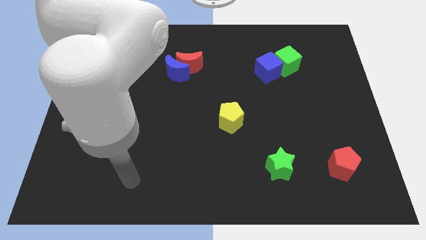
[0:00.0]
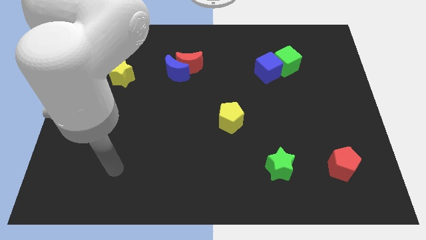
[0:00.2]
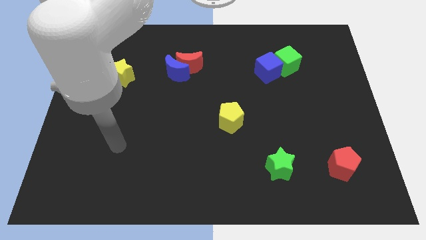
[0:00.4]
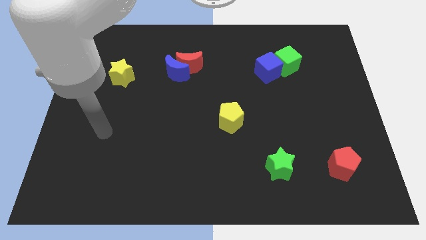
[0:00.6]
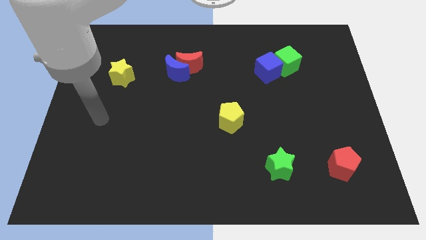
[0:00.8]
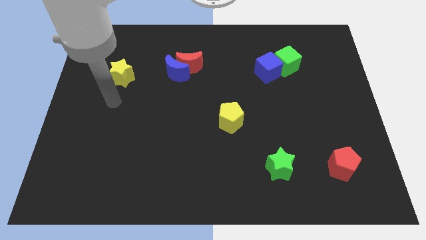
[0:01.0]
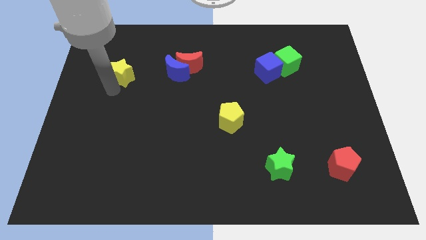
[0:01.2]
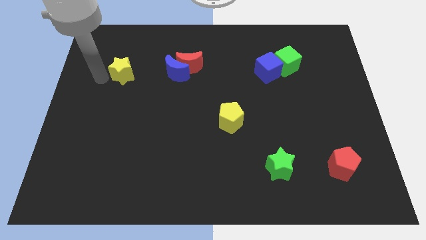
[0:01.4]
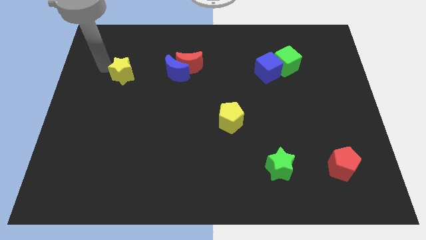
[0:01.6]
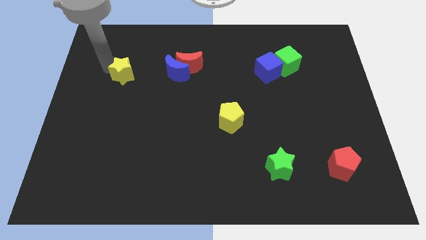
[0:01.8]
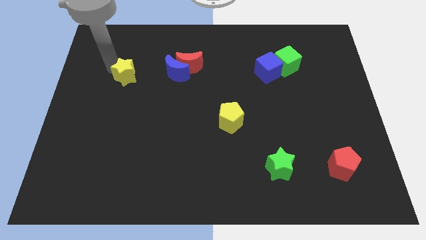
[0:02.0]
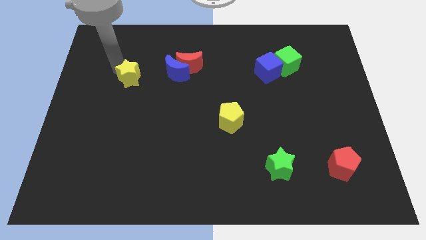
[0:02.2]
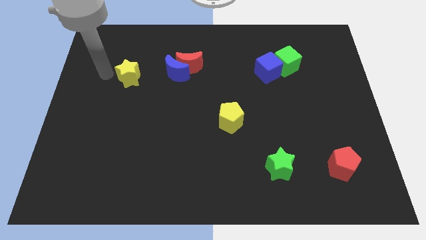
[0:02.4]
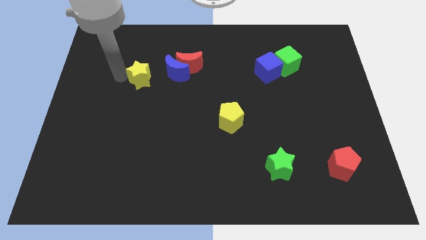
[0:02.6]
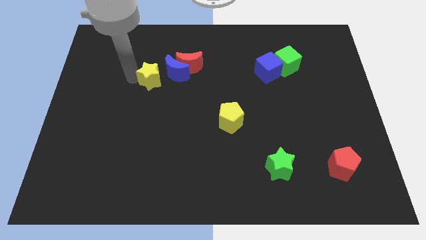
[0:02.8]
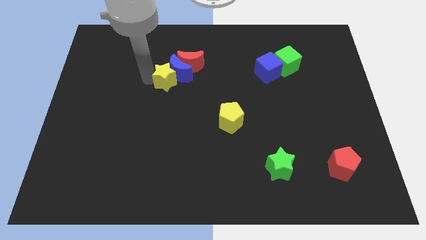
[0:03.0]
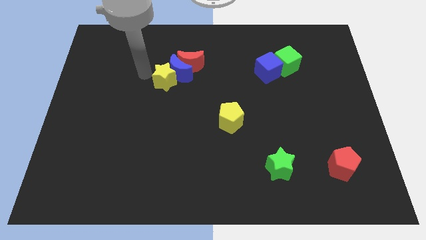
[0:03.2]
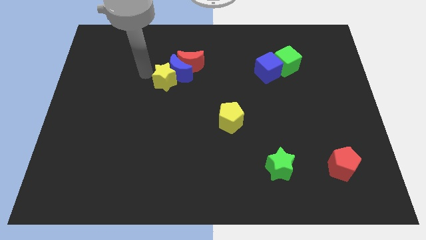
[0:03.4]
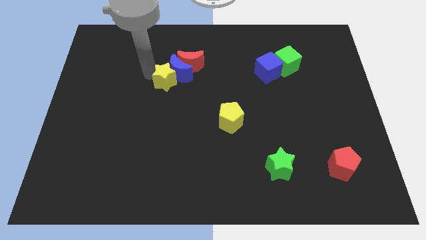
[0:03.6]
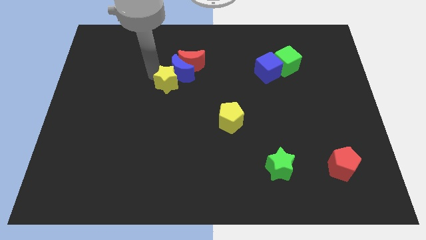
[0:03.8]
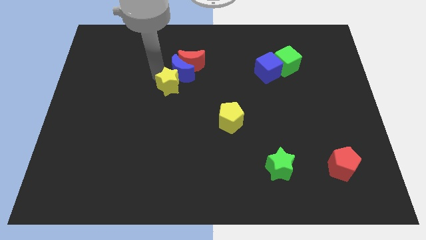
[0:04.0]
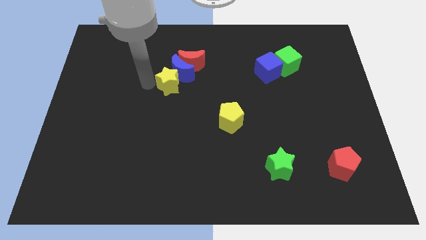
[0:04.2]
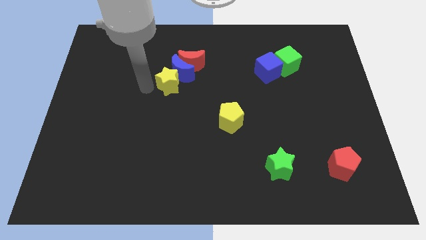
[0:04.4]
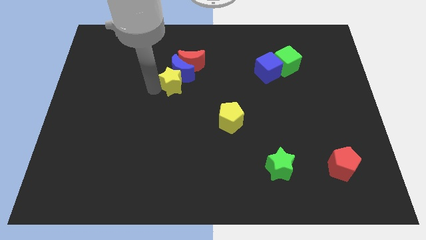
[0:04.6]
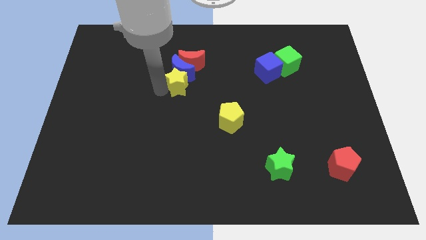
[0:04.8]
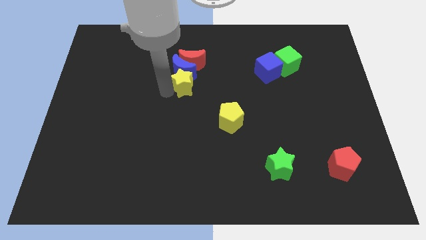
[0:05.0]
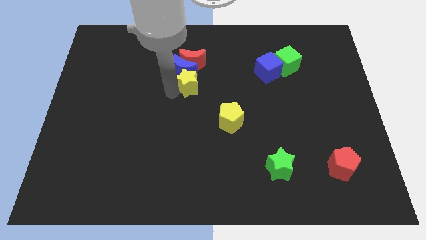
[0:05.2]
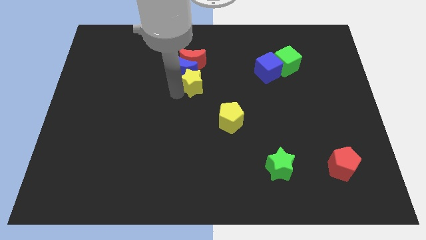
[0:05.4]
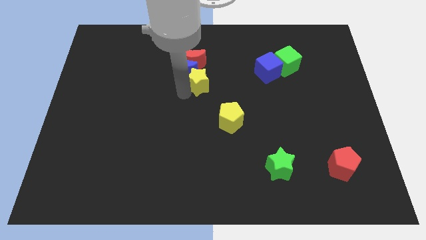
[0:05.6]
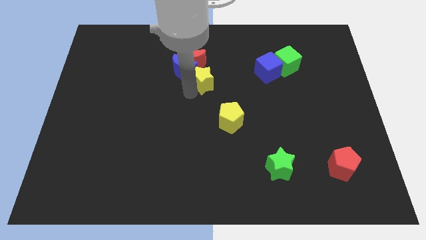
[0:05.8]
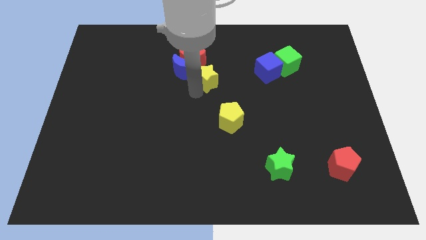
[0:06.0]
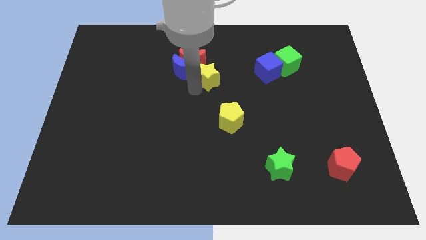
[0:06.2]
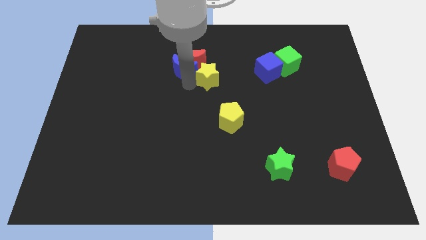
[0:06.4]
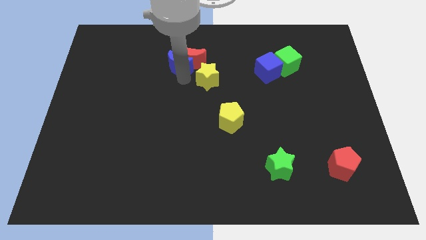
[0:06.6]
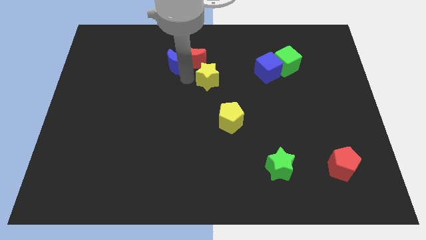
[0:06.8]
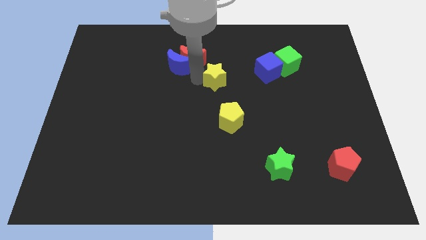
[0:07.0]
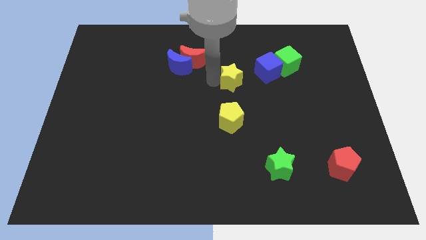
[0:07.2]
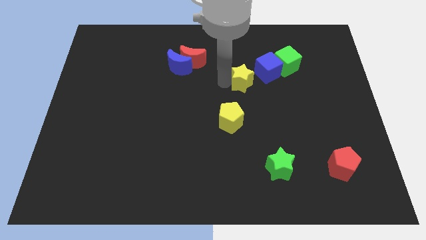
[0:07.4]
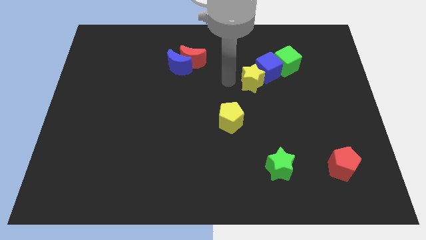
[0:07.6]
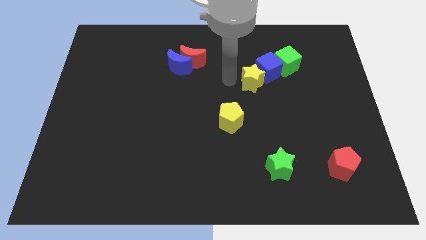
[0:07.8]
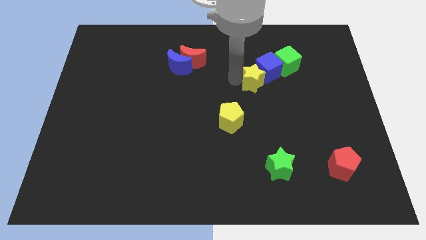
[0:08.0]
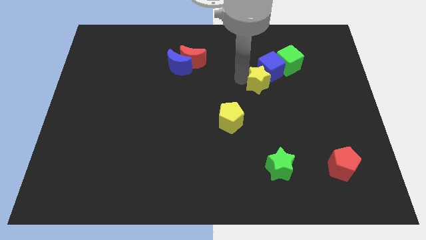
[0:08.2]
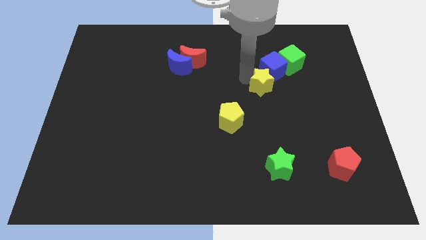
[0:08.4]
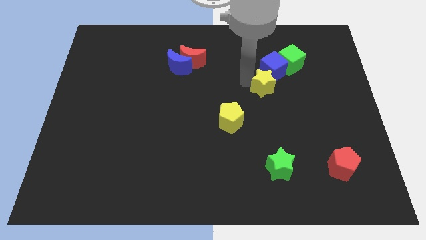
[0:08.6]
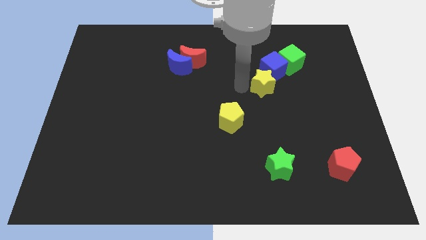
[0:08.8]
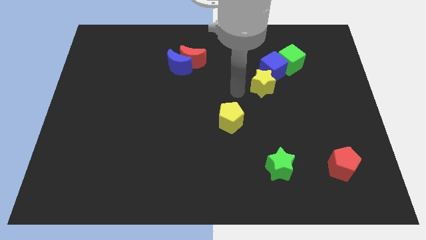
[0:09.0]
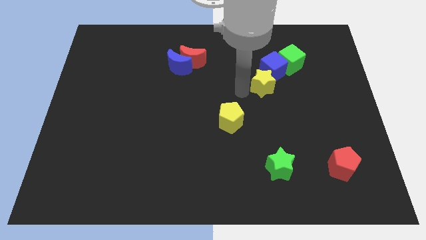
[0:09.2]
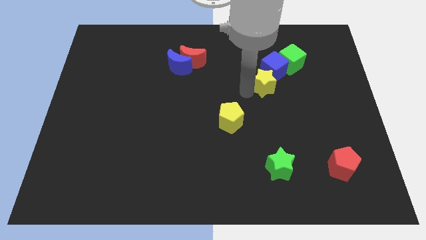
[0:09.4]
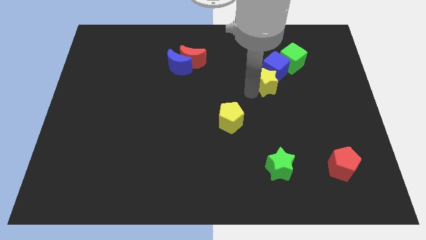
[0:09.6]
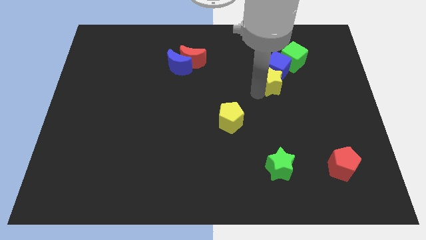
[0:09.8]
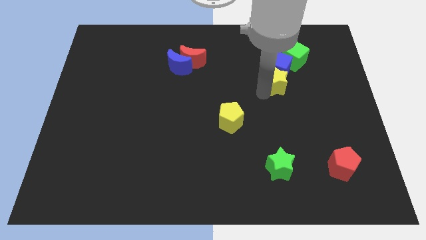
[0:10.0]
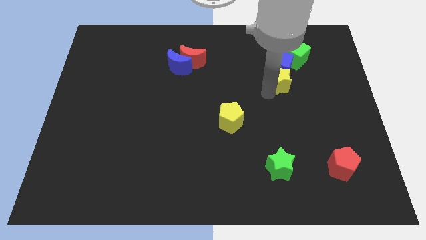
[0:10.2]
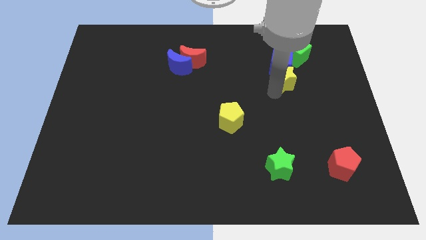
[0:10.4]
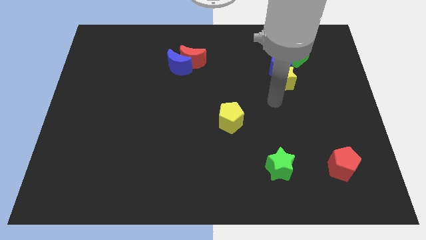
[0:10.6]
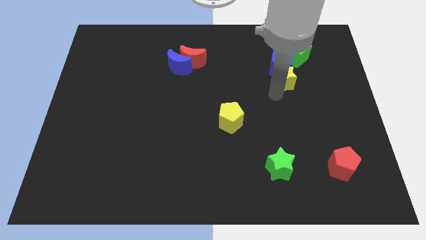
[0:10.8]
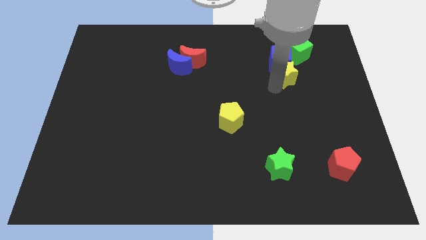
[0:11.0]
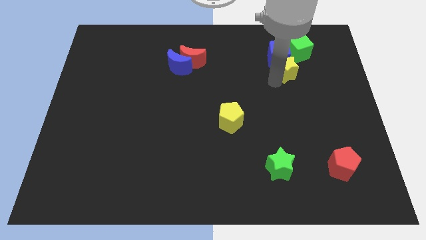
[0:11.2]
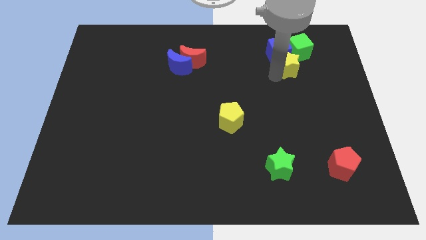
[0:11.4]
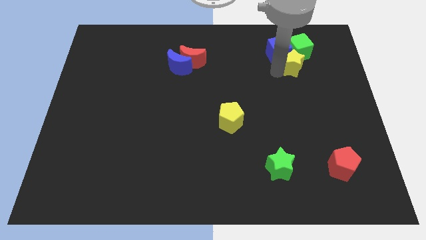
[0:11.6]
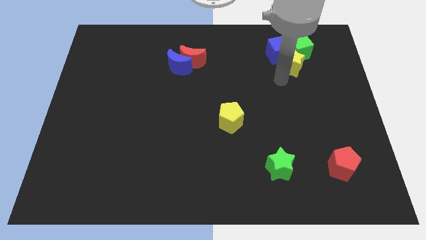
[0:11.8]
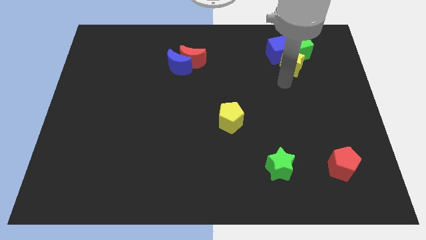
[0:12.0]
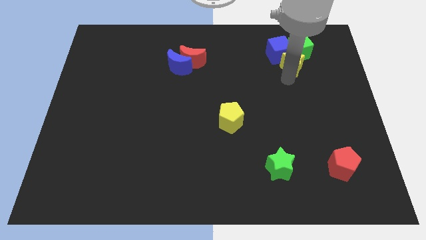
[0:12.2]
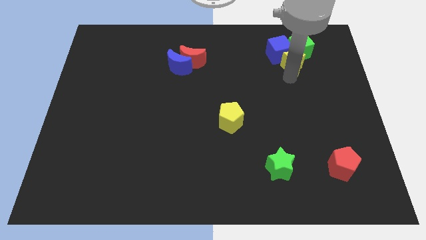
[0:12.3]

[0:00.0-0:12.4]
move the yellow star towards the green cube

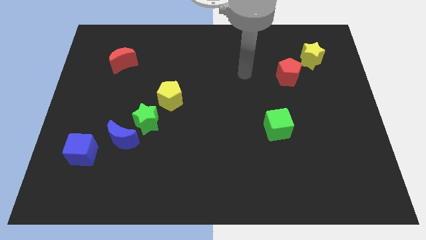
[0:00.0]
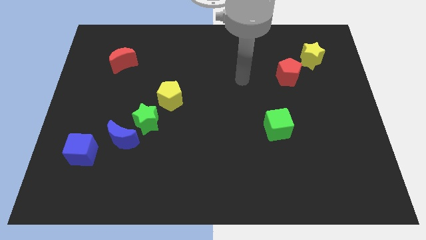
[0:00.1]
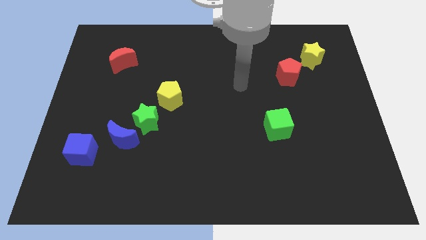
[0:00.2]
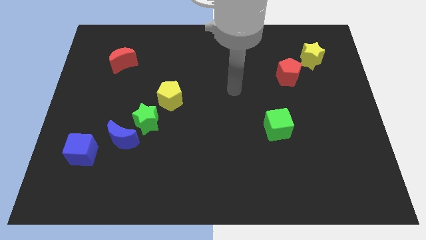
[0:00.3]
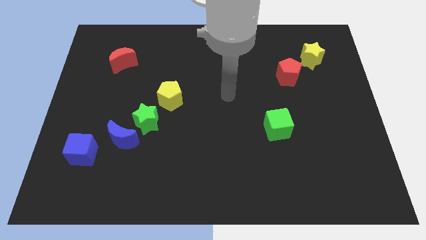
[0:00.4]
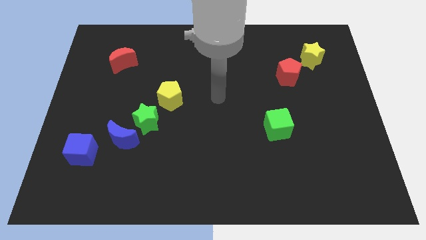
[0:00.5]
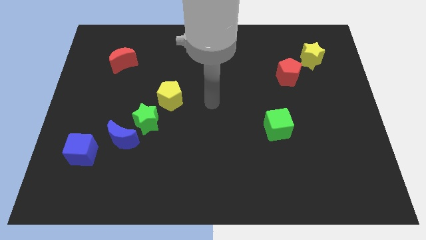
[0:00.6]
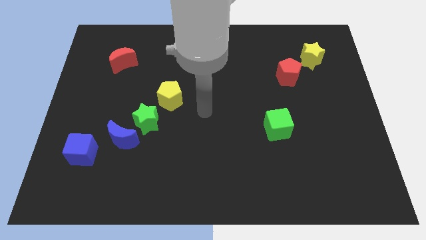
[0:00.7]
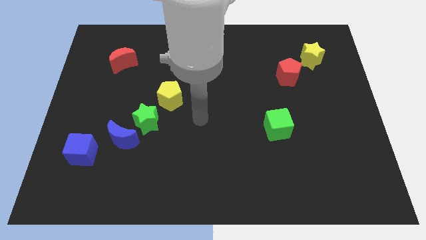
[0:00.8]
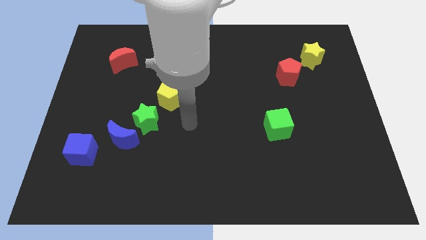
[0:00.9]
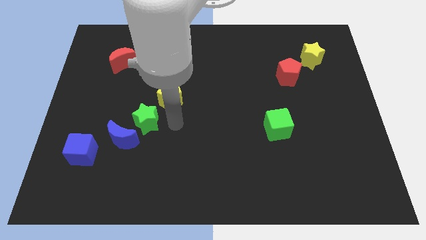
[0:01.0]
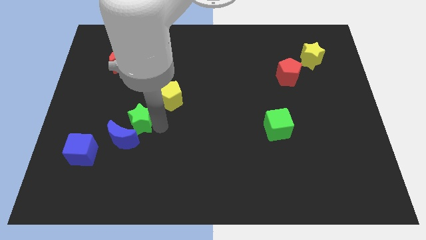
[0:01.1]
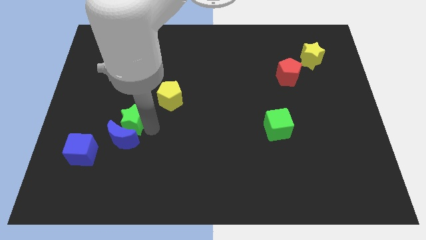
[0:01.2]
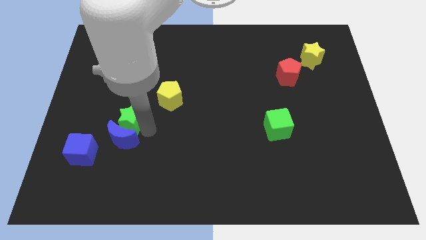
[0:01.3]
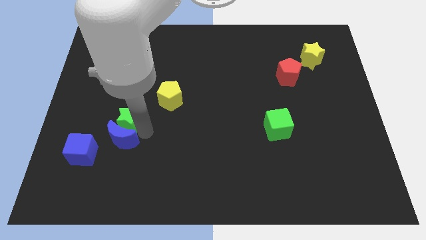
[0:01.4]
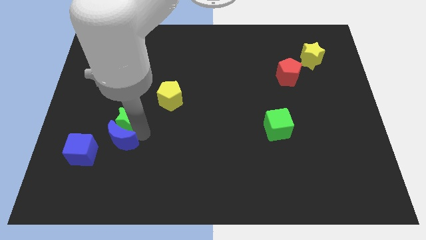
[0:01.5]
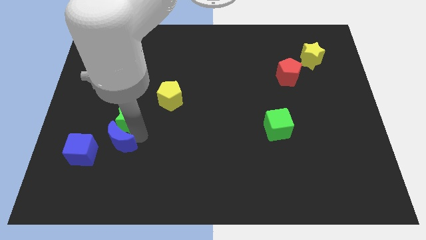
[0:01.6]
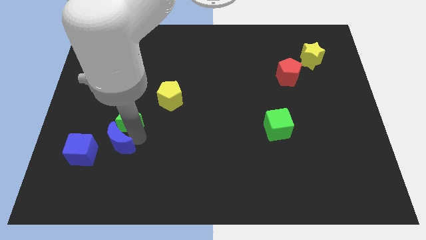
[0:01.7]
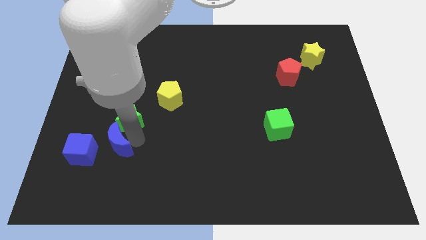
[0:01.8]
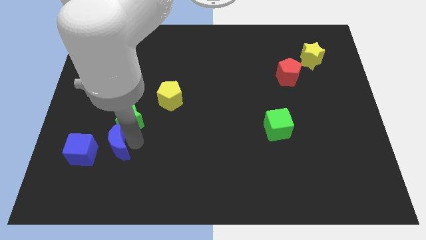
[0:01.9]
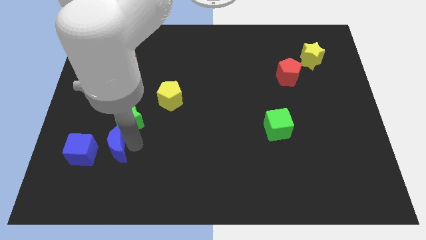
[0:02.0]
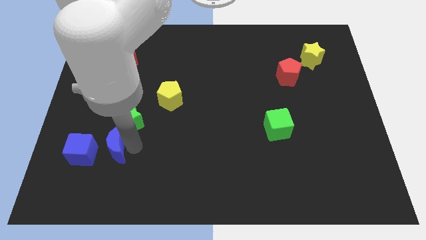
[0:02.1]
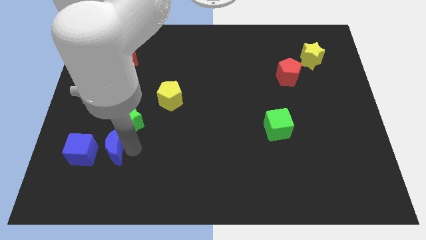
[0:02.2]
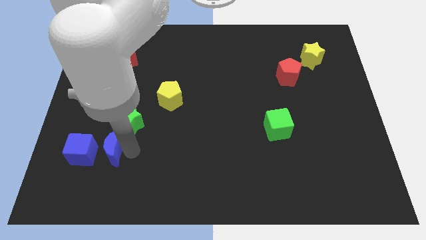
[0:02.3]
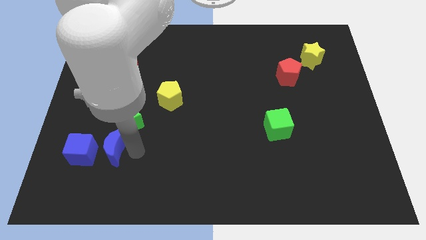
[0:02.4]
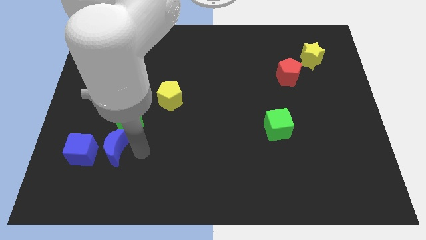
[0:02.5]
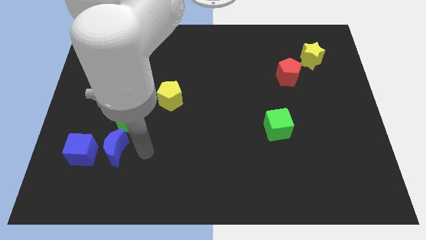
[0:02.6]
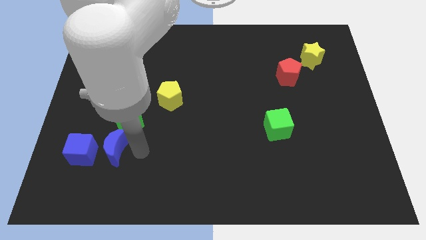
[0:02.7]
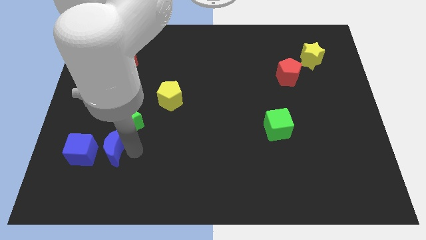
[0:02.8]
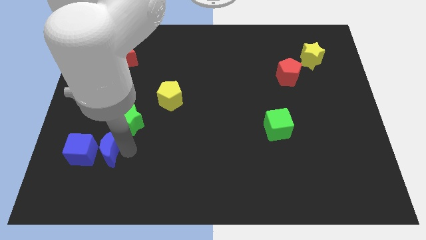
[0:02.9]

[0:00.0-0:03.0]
slide the blue moon towards the blue cube
